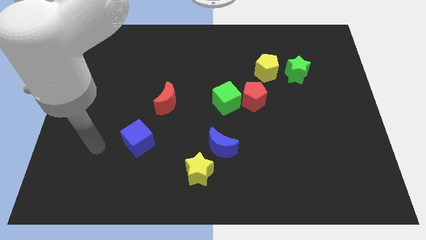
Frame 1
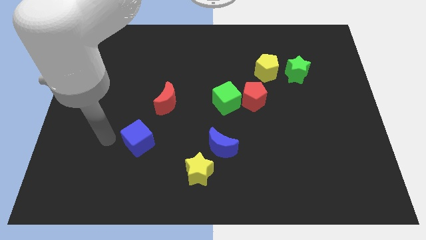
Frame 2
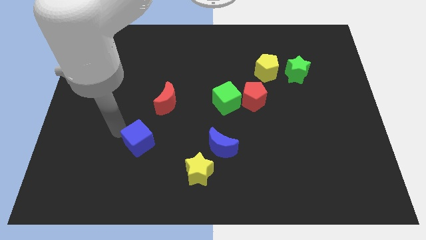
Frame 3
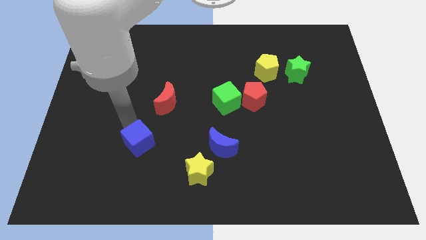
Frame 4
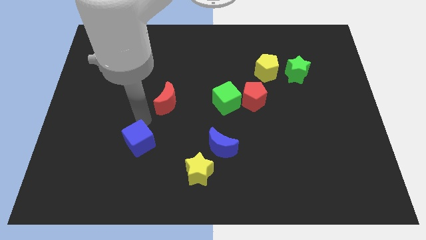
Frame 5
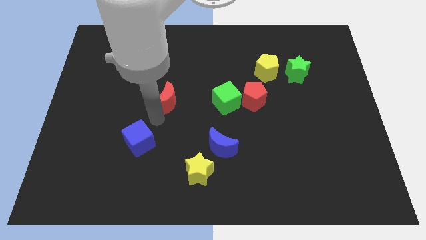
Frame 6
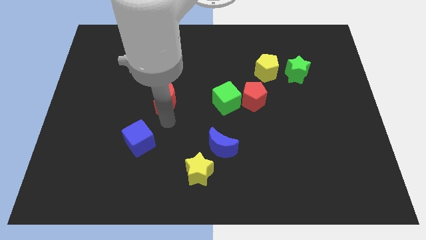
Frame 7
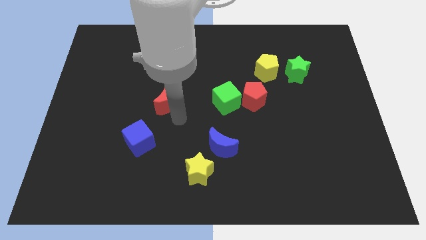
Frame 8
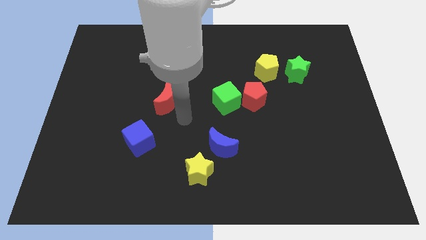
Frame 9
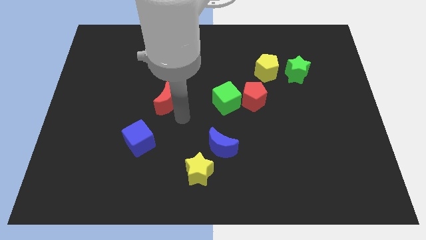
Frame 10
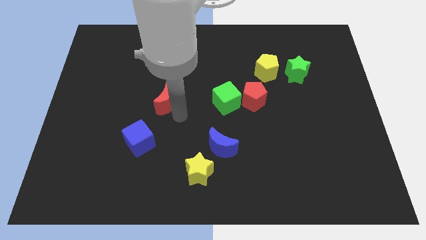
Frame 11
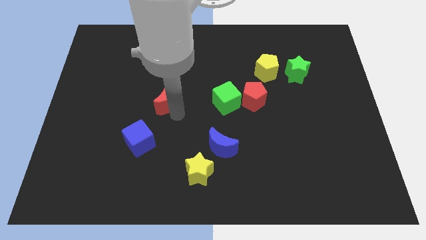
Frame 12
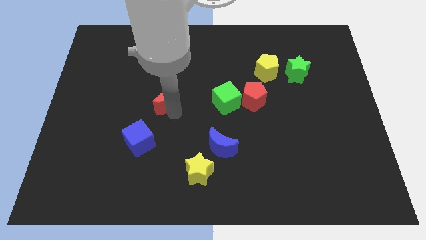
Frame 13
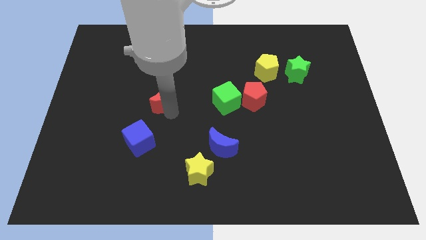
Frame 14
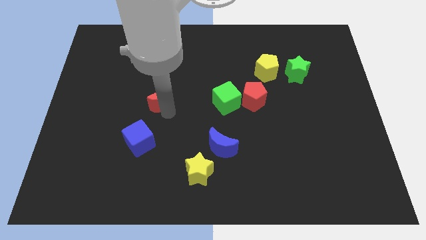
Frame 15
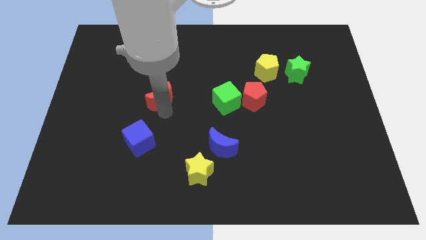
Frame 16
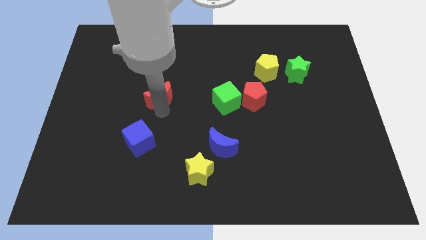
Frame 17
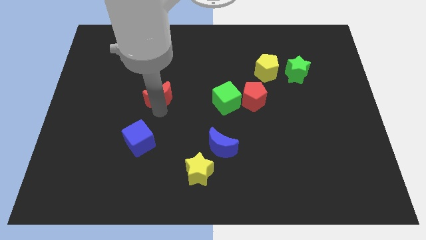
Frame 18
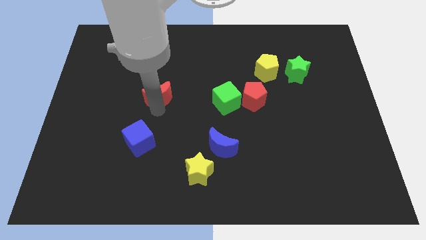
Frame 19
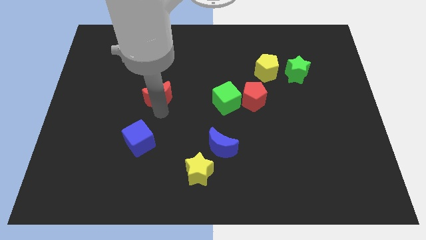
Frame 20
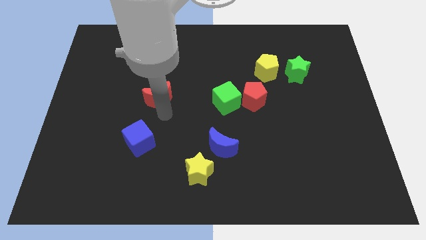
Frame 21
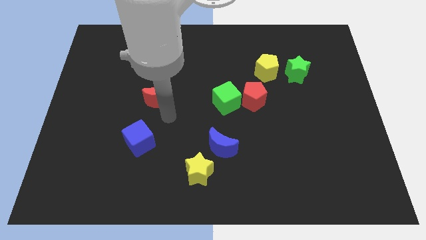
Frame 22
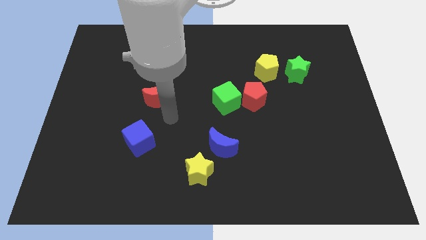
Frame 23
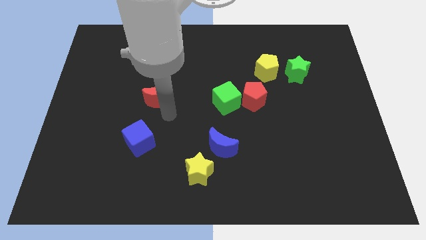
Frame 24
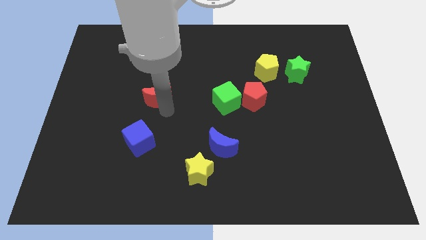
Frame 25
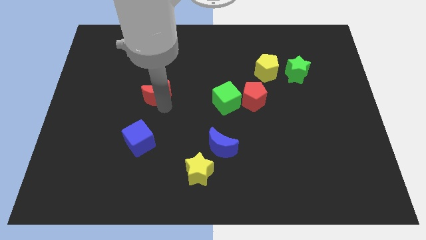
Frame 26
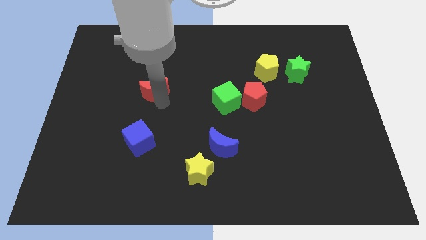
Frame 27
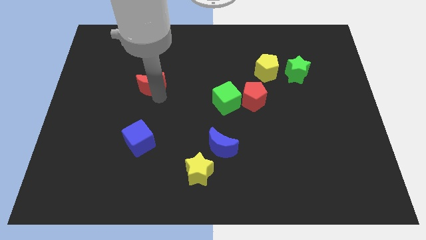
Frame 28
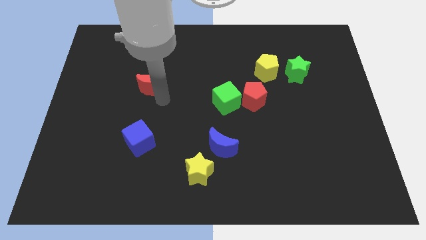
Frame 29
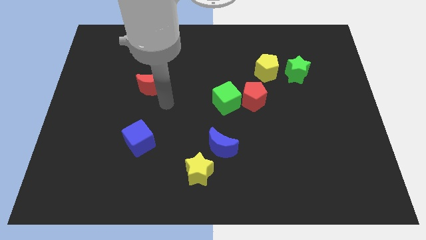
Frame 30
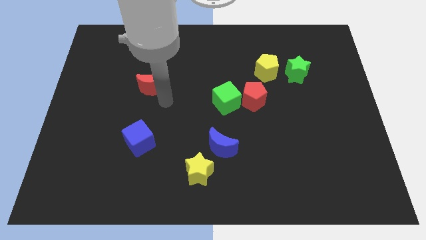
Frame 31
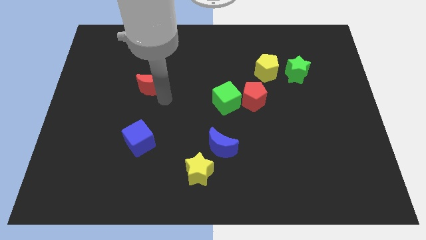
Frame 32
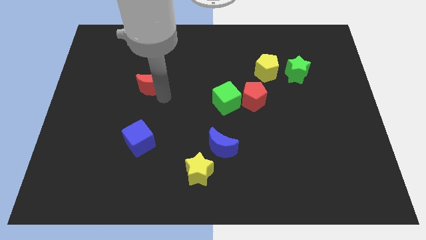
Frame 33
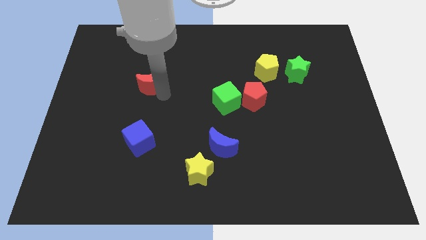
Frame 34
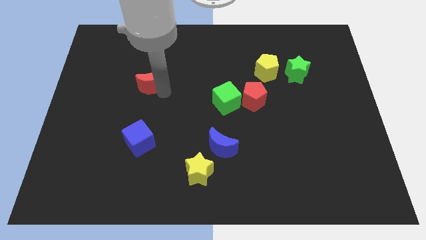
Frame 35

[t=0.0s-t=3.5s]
move the red moon somewhat up and then to the left

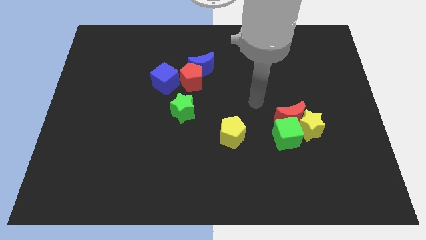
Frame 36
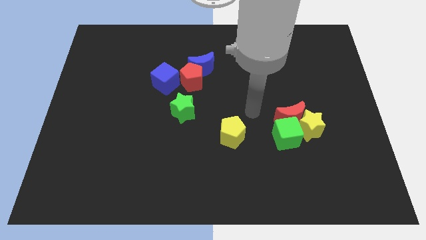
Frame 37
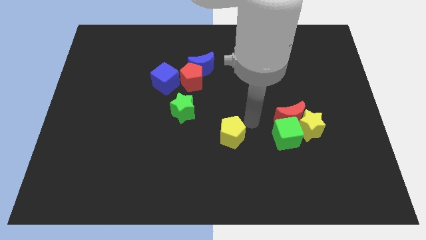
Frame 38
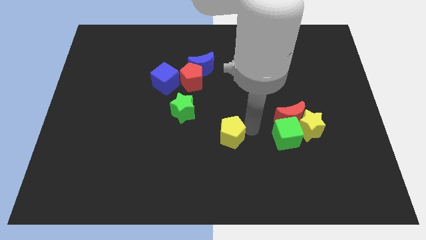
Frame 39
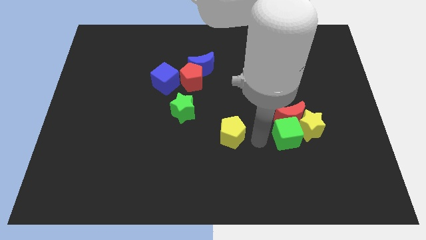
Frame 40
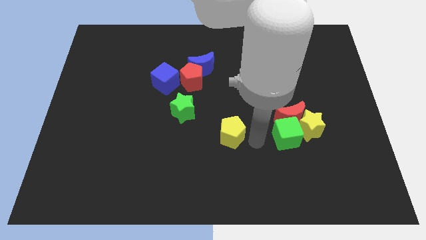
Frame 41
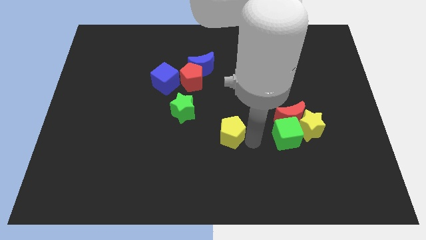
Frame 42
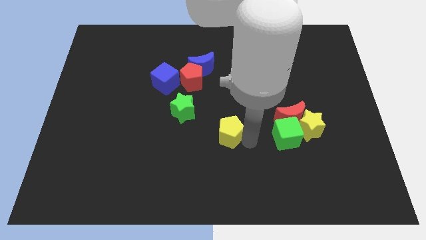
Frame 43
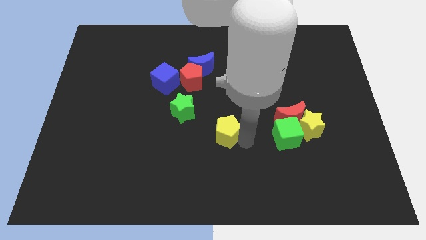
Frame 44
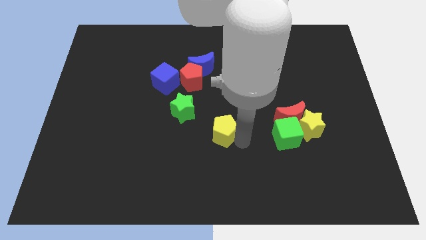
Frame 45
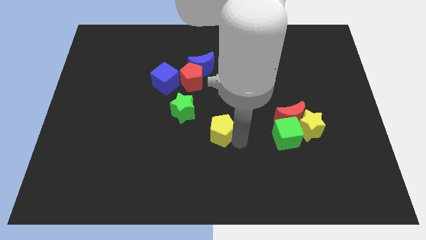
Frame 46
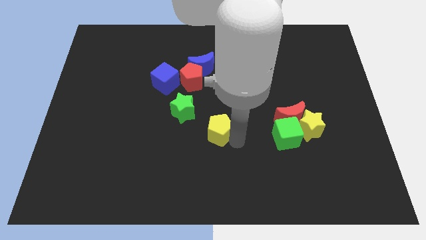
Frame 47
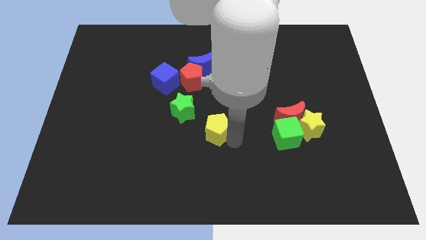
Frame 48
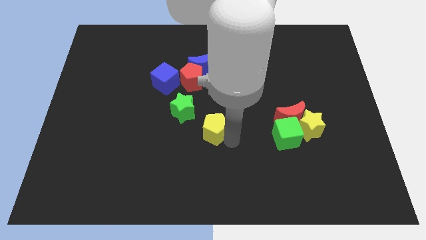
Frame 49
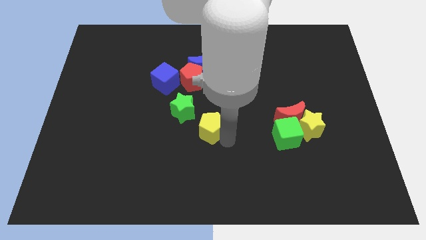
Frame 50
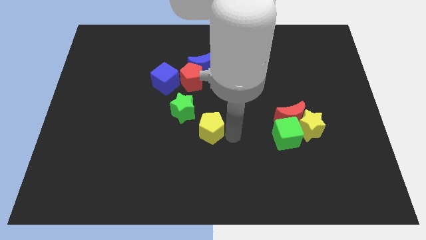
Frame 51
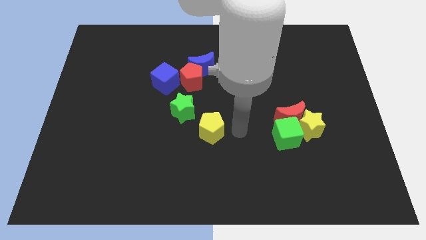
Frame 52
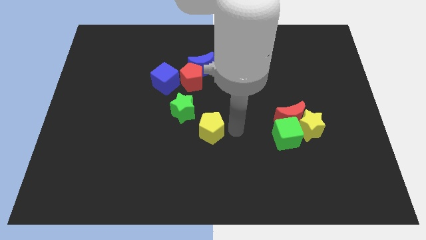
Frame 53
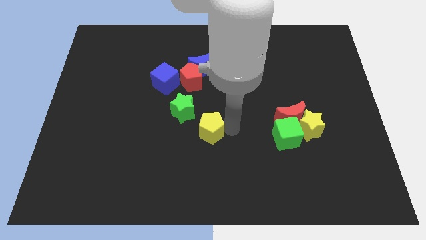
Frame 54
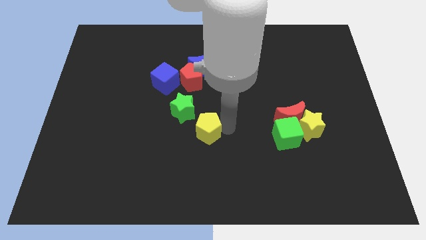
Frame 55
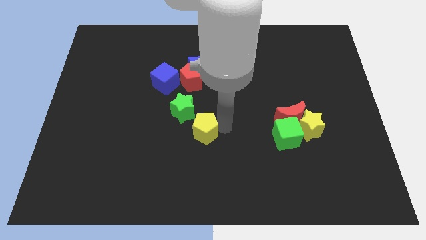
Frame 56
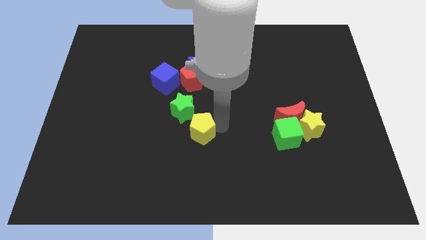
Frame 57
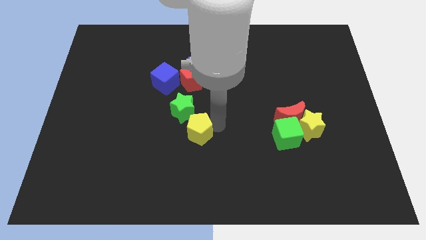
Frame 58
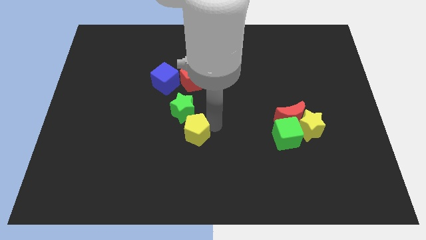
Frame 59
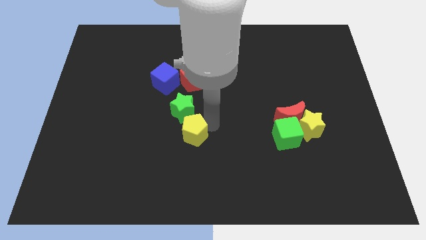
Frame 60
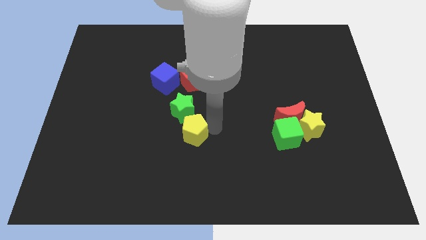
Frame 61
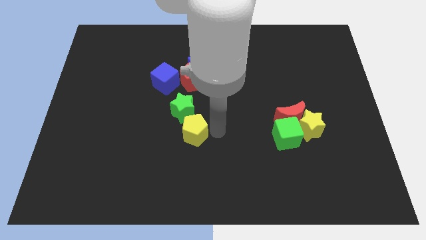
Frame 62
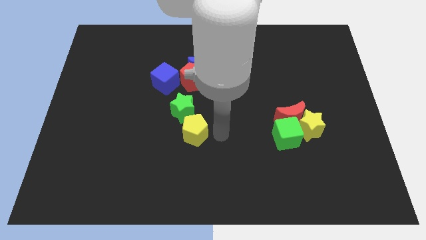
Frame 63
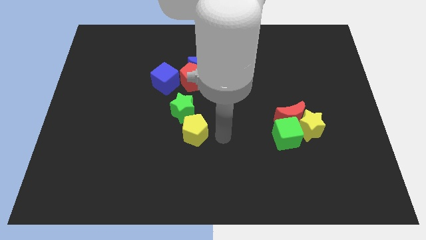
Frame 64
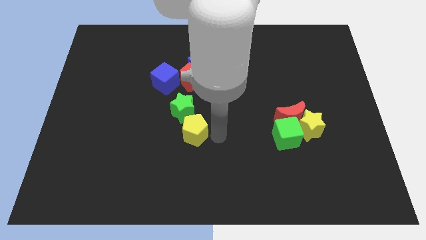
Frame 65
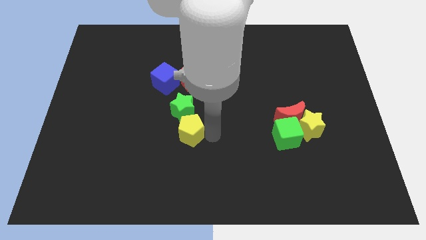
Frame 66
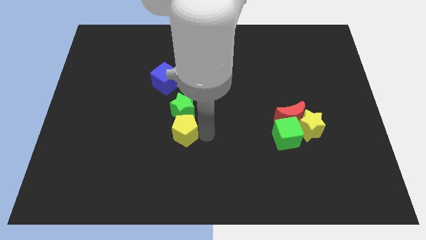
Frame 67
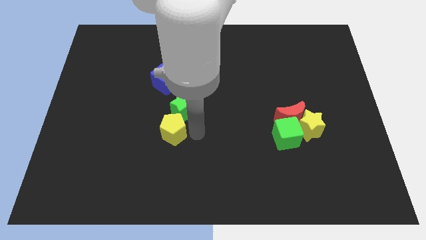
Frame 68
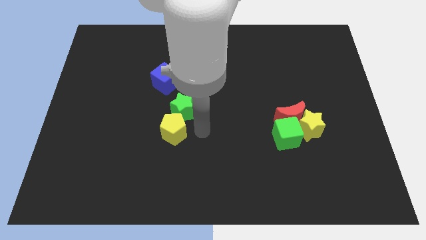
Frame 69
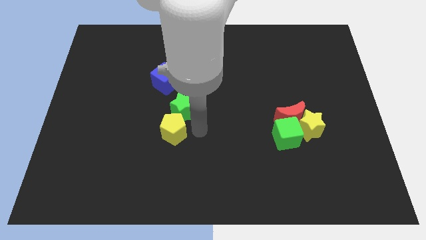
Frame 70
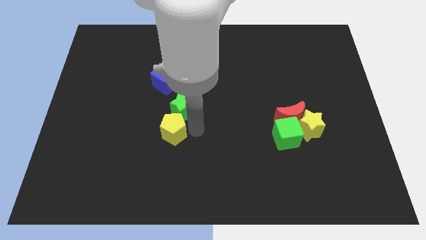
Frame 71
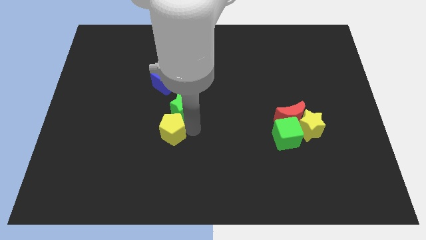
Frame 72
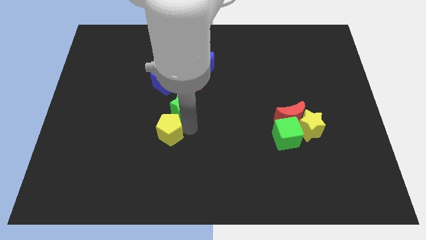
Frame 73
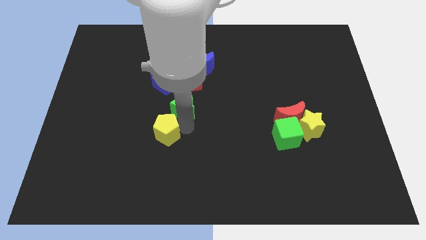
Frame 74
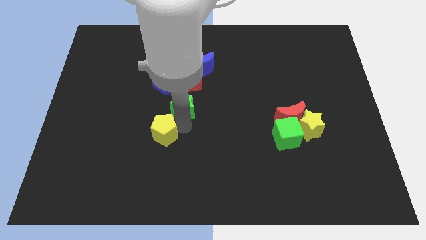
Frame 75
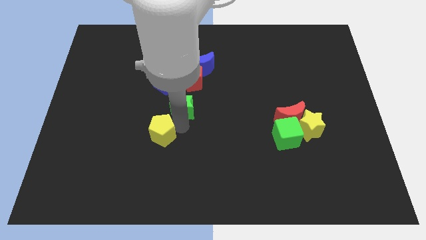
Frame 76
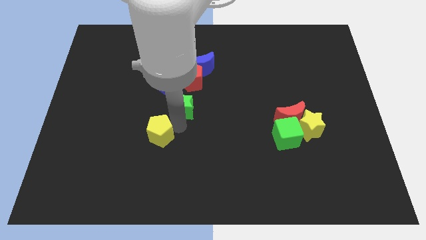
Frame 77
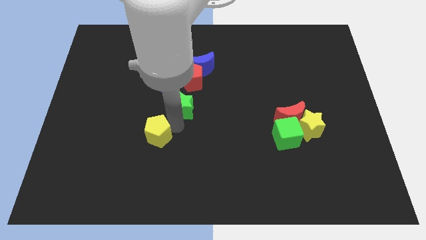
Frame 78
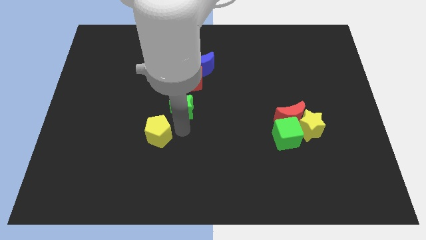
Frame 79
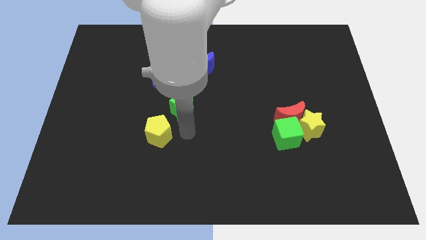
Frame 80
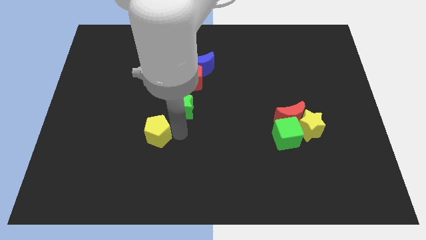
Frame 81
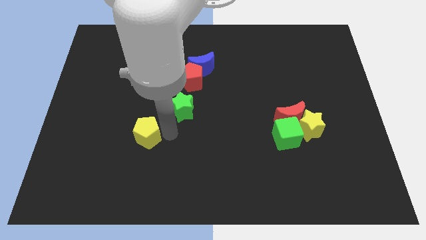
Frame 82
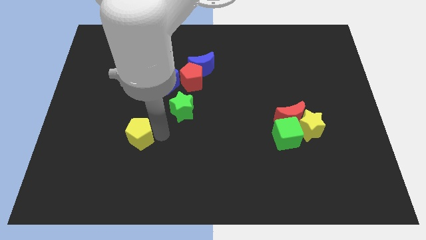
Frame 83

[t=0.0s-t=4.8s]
slide the yellow pentagon to the left
